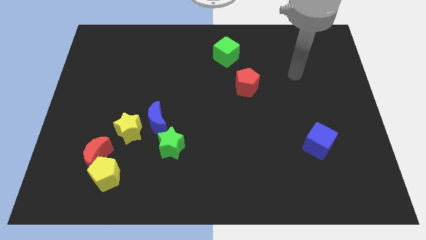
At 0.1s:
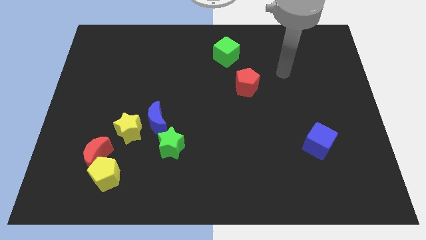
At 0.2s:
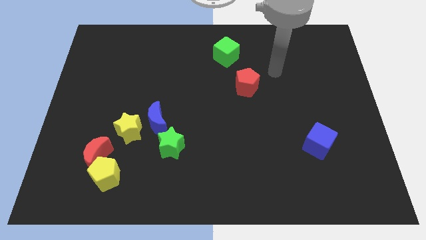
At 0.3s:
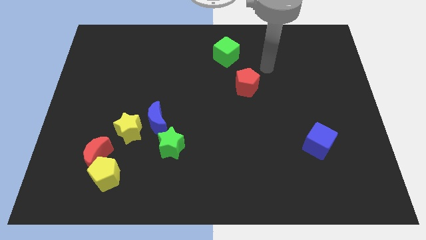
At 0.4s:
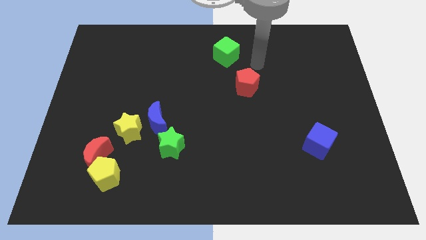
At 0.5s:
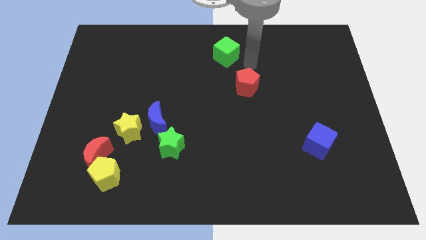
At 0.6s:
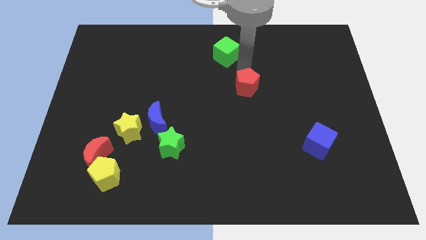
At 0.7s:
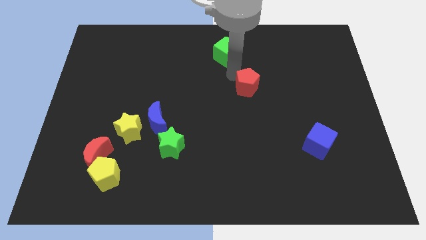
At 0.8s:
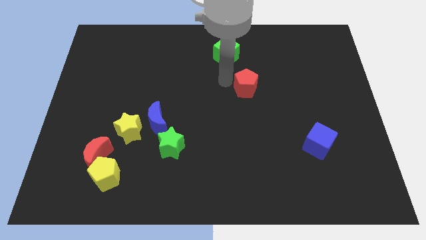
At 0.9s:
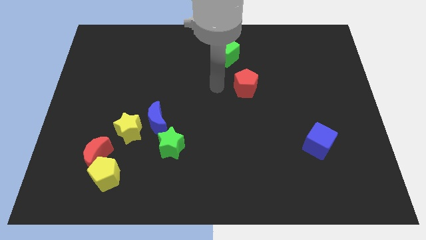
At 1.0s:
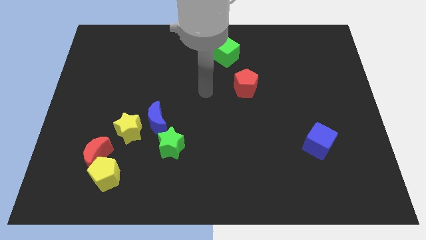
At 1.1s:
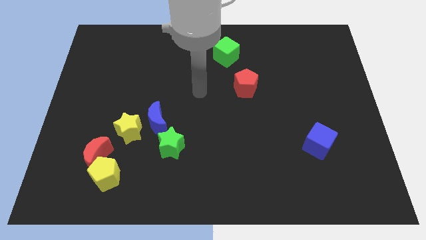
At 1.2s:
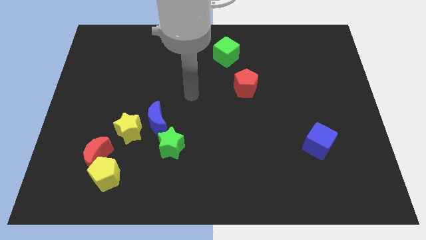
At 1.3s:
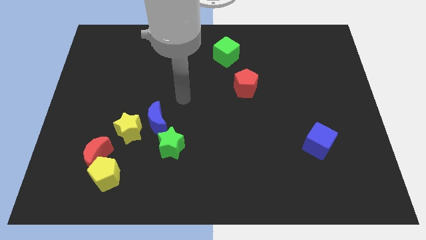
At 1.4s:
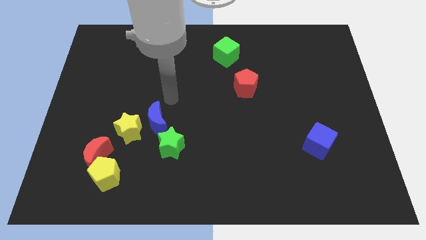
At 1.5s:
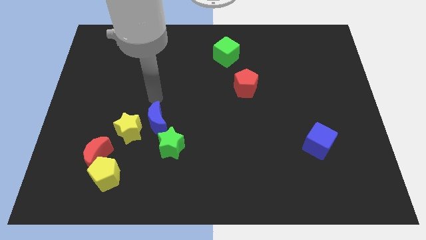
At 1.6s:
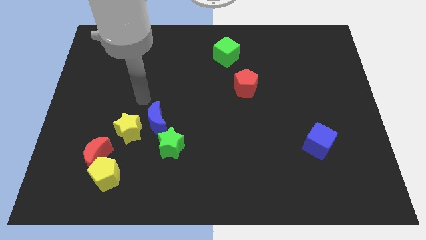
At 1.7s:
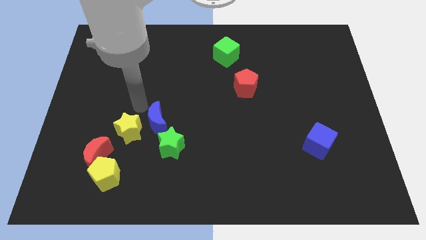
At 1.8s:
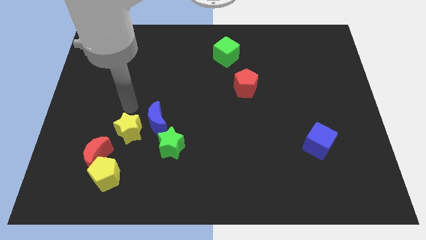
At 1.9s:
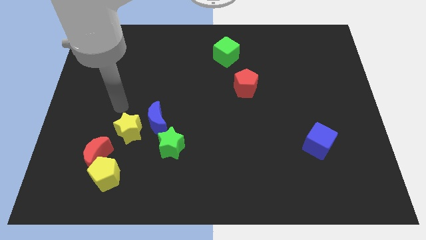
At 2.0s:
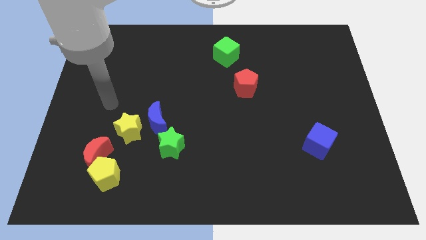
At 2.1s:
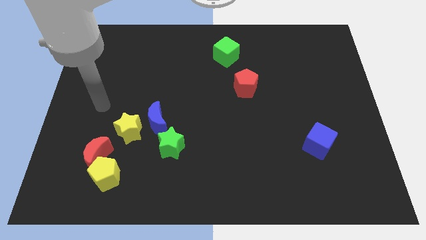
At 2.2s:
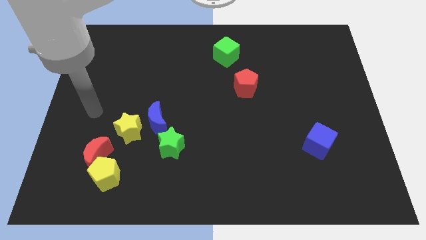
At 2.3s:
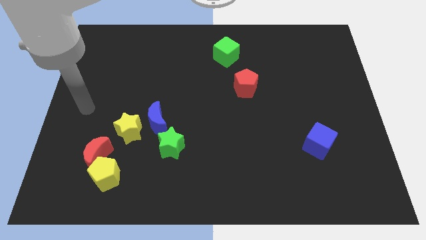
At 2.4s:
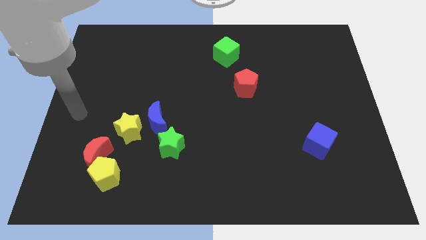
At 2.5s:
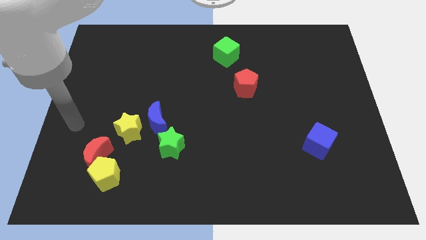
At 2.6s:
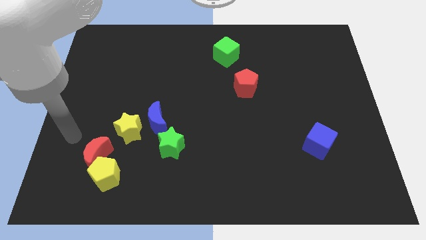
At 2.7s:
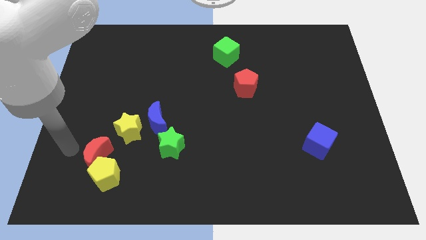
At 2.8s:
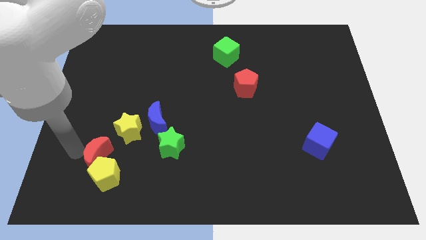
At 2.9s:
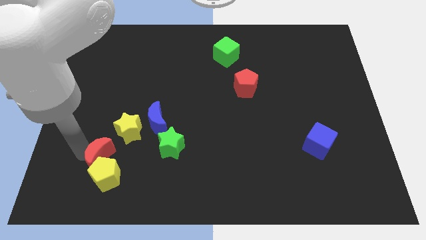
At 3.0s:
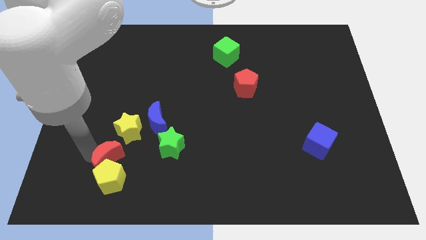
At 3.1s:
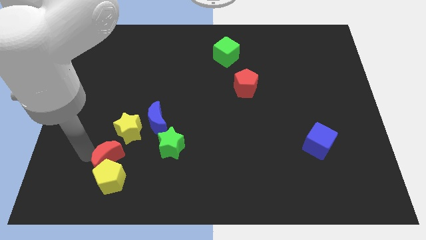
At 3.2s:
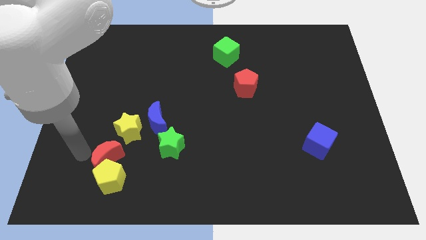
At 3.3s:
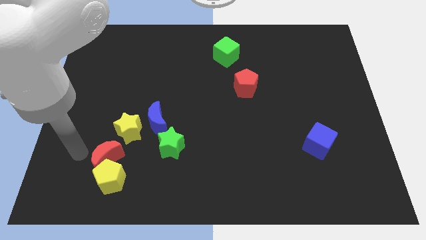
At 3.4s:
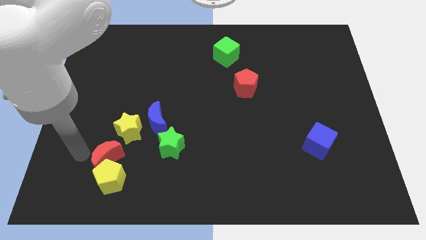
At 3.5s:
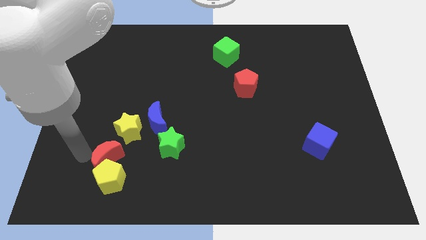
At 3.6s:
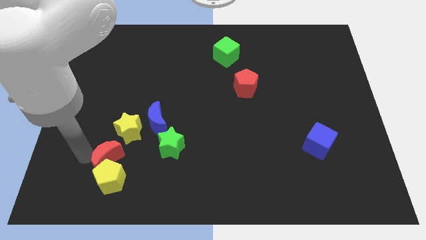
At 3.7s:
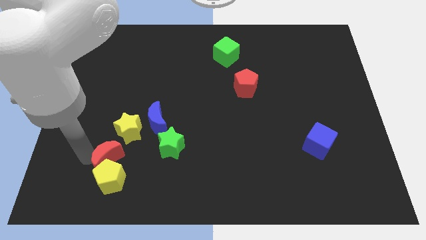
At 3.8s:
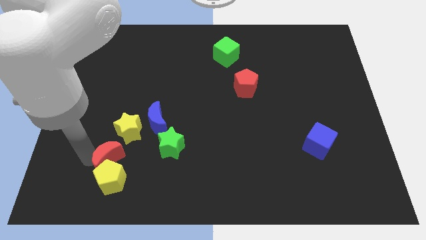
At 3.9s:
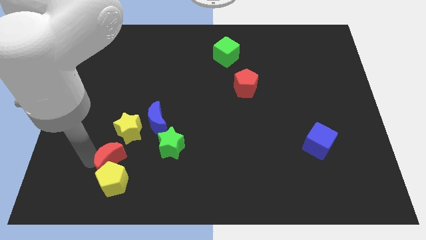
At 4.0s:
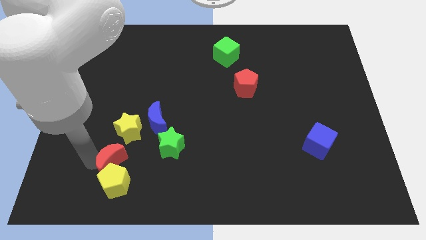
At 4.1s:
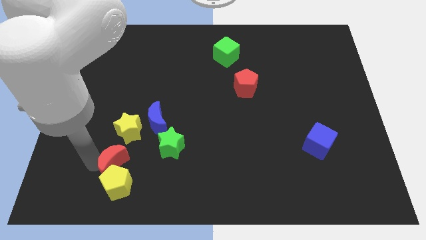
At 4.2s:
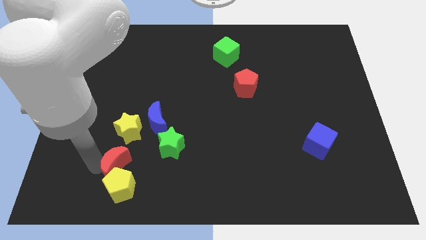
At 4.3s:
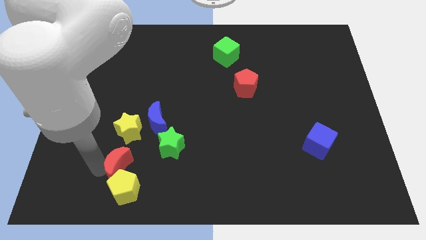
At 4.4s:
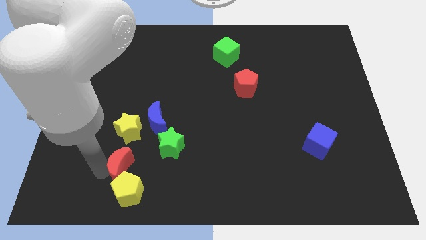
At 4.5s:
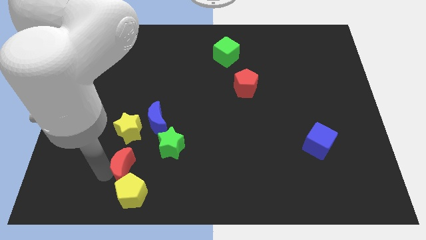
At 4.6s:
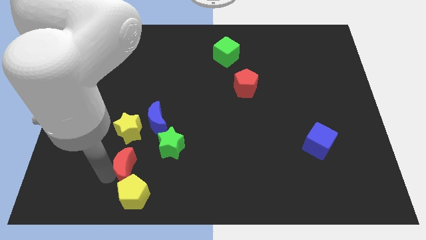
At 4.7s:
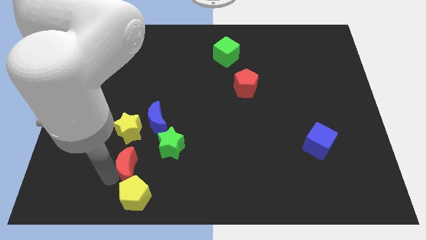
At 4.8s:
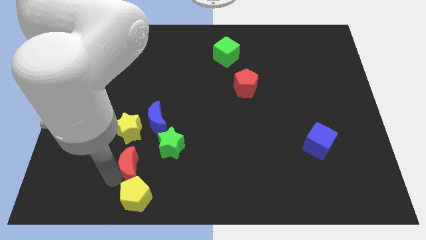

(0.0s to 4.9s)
slightly push the red moon to the right

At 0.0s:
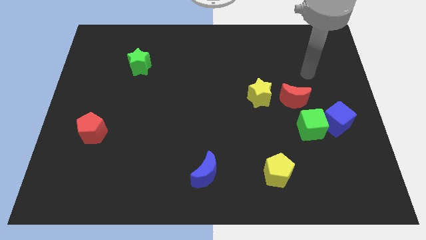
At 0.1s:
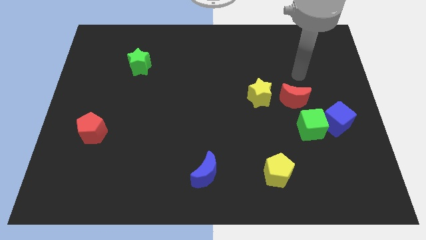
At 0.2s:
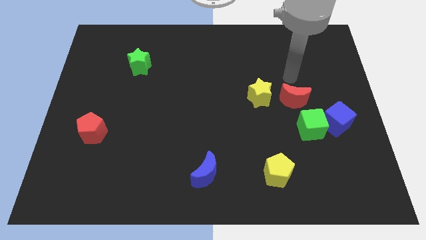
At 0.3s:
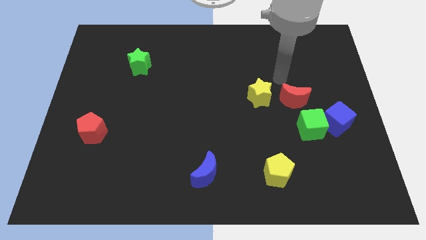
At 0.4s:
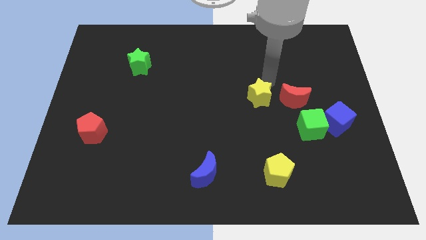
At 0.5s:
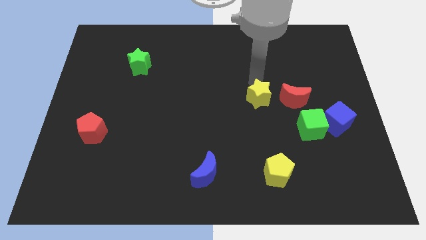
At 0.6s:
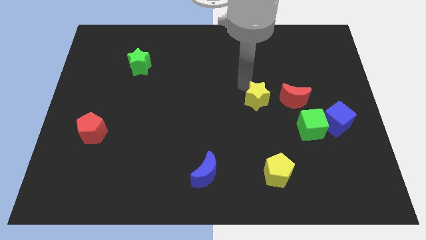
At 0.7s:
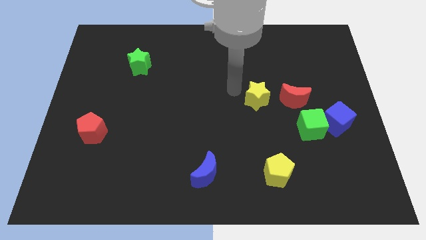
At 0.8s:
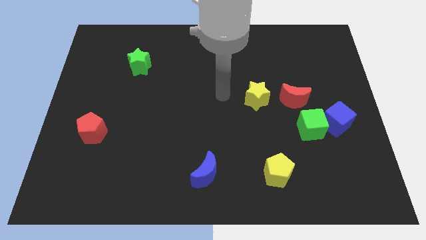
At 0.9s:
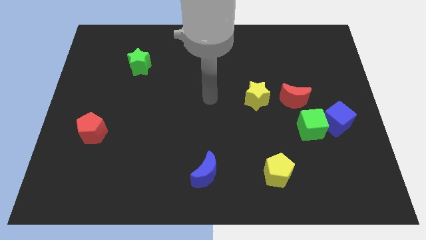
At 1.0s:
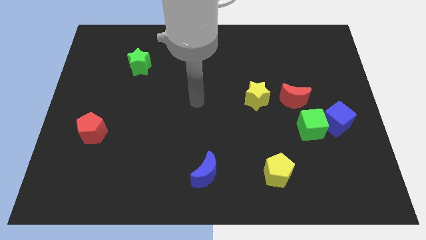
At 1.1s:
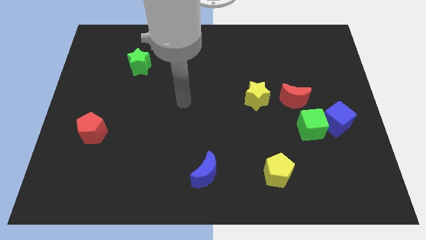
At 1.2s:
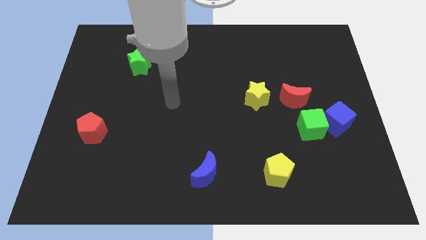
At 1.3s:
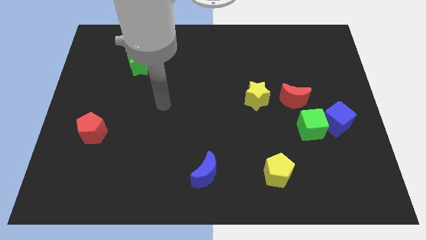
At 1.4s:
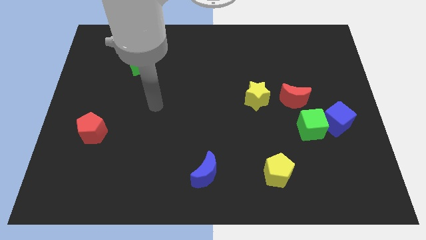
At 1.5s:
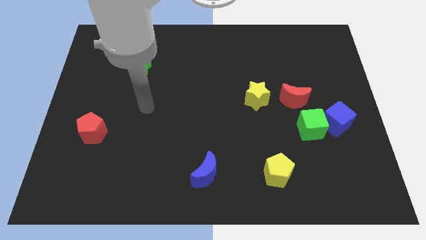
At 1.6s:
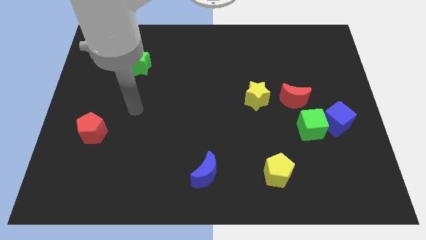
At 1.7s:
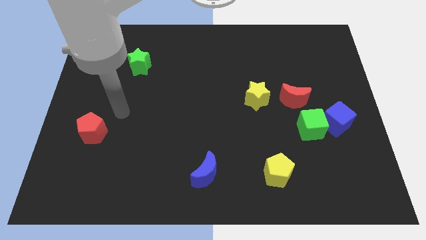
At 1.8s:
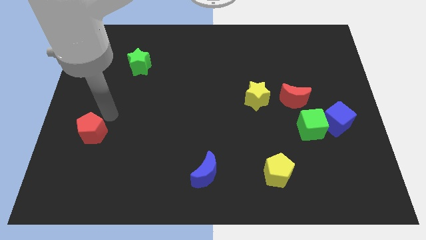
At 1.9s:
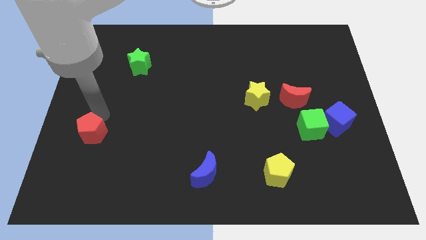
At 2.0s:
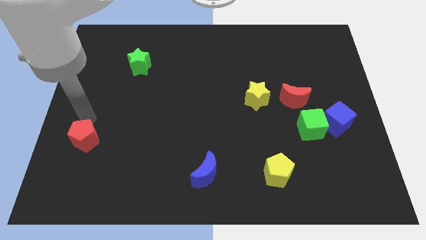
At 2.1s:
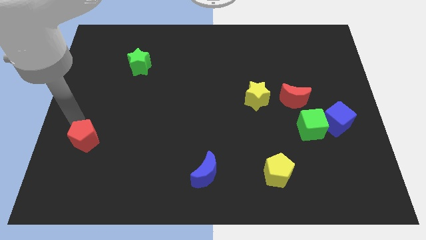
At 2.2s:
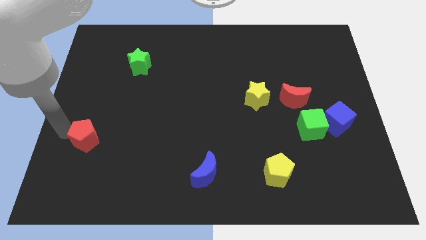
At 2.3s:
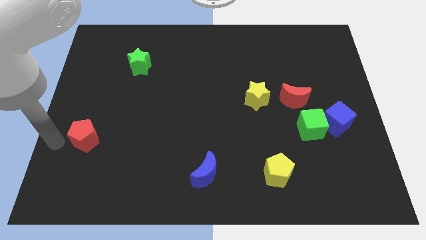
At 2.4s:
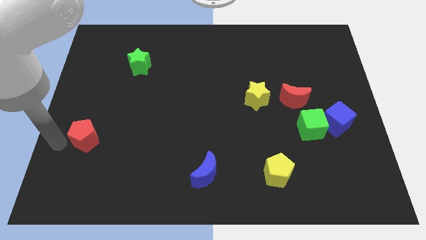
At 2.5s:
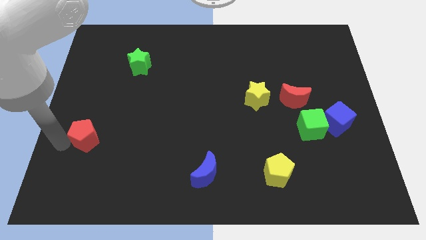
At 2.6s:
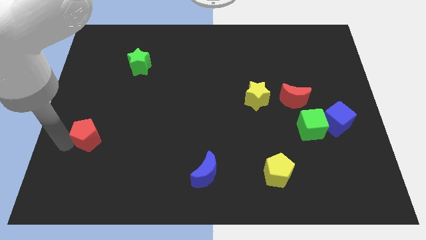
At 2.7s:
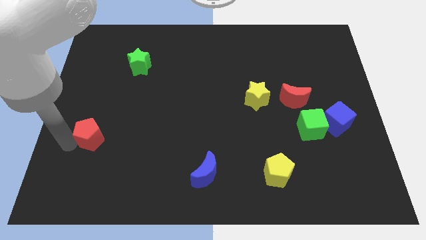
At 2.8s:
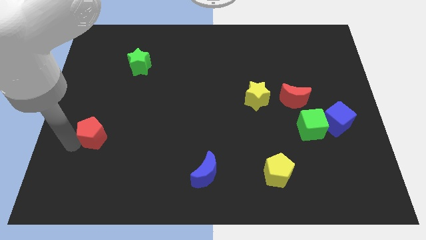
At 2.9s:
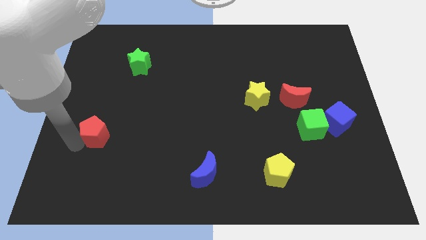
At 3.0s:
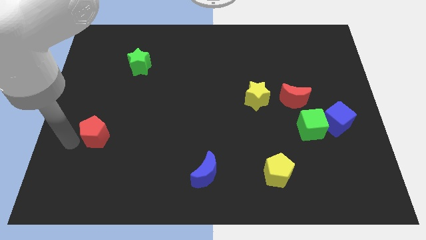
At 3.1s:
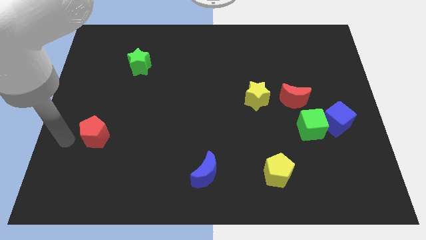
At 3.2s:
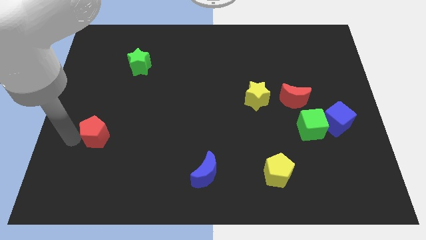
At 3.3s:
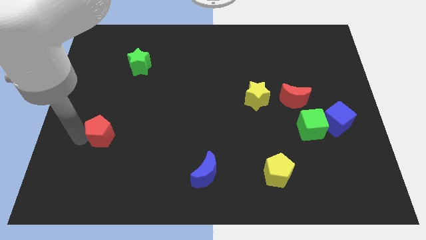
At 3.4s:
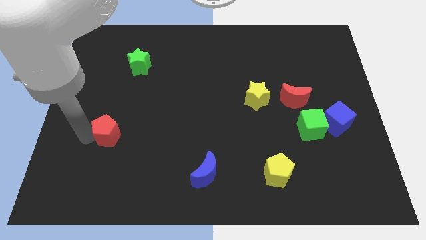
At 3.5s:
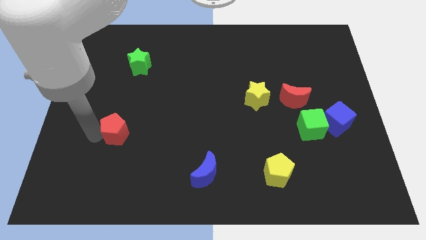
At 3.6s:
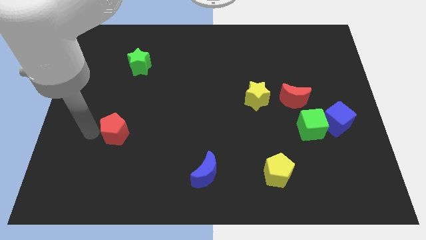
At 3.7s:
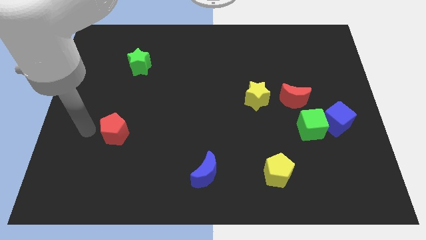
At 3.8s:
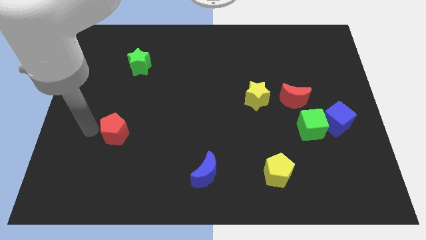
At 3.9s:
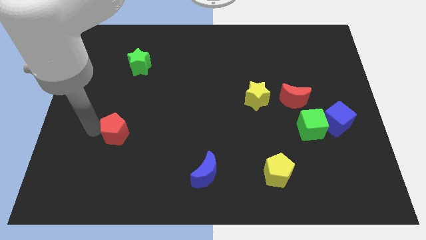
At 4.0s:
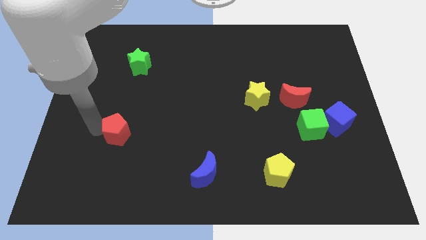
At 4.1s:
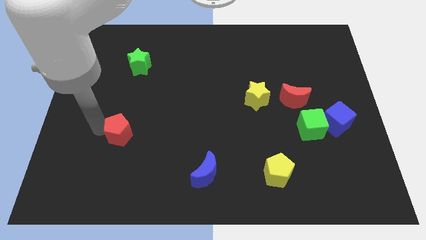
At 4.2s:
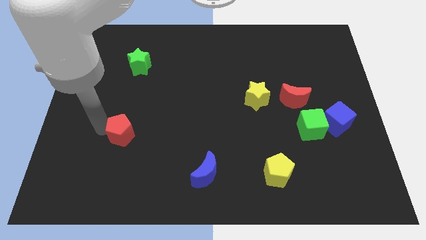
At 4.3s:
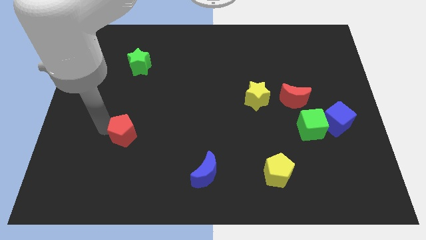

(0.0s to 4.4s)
slightly push the red pentagon right
